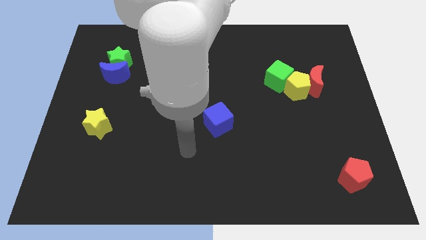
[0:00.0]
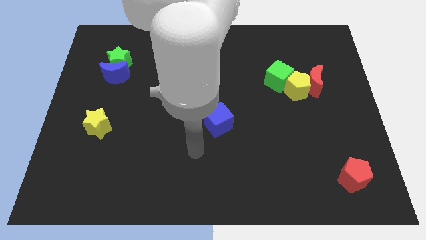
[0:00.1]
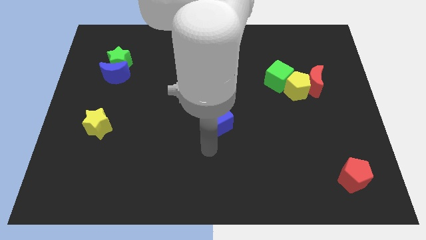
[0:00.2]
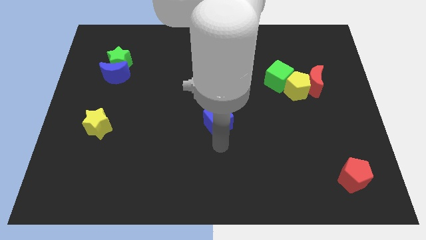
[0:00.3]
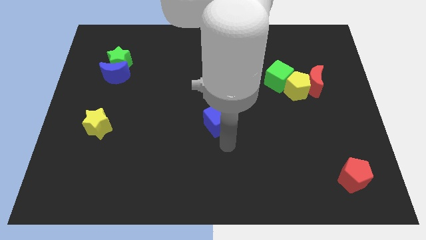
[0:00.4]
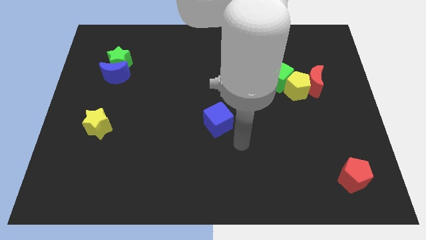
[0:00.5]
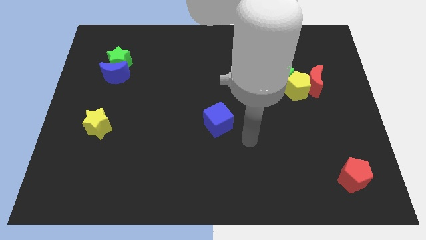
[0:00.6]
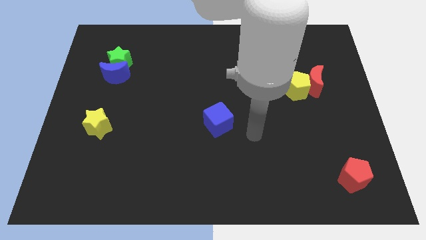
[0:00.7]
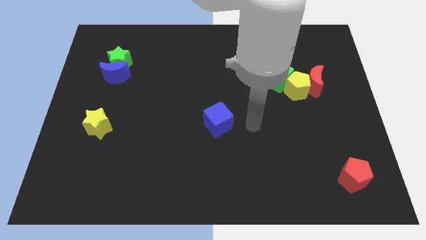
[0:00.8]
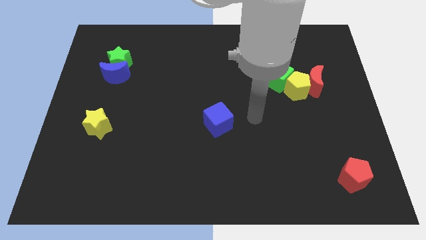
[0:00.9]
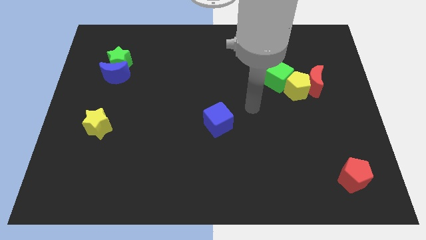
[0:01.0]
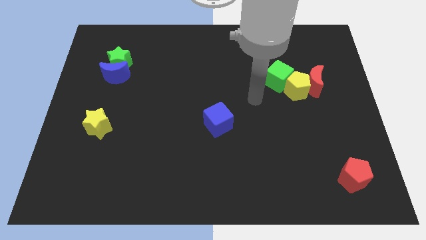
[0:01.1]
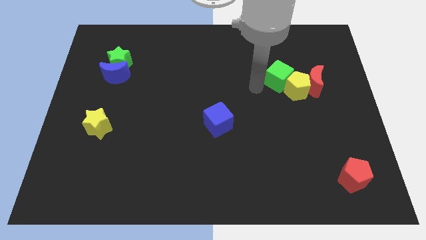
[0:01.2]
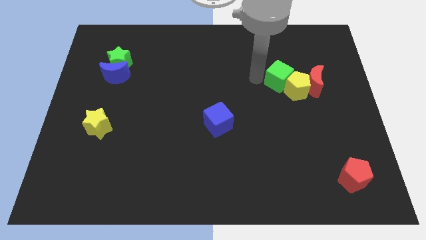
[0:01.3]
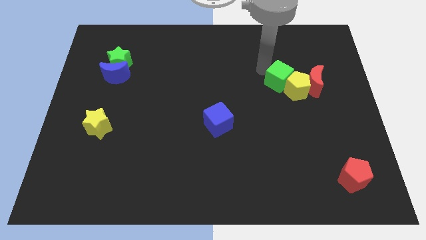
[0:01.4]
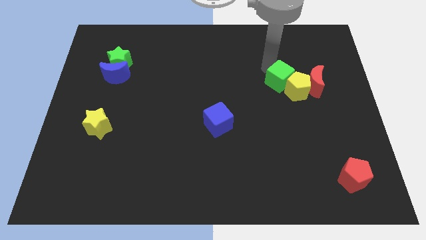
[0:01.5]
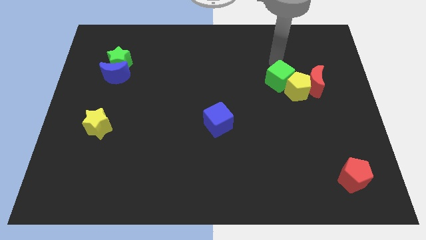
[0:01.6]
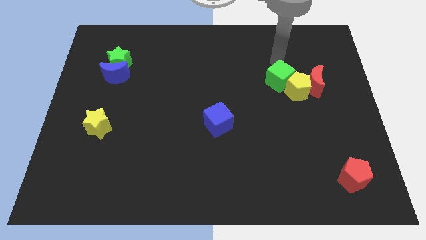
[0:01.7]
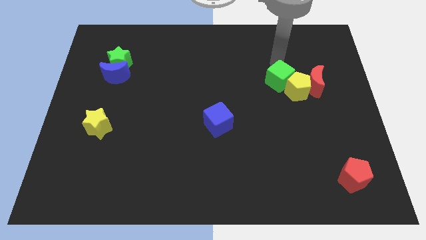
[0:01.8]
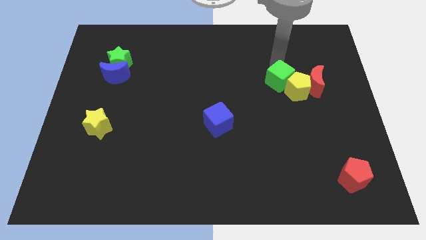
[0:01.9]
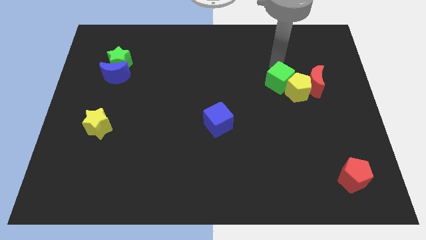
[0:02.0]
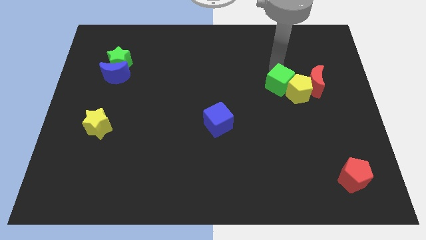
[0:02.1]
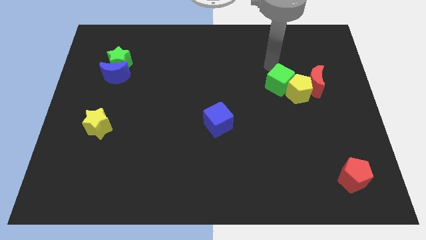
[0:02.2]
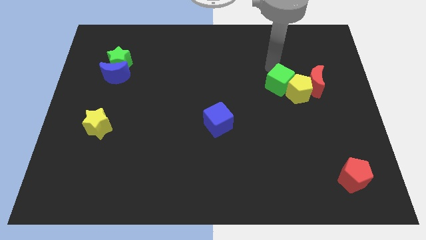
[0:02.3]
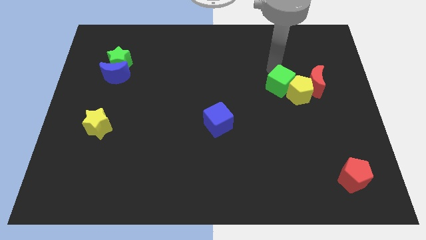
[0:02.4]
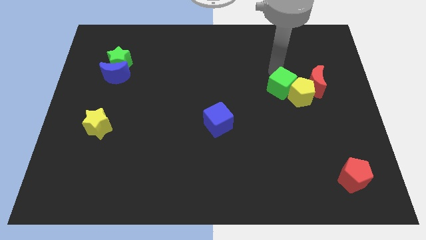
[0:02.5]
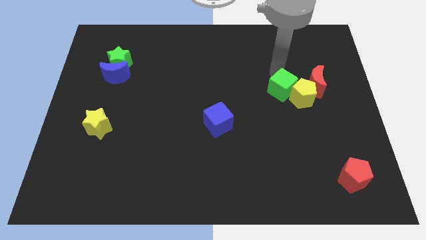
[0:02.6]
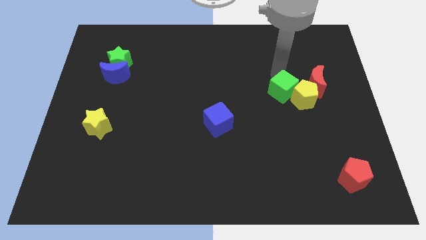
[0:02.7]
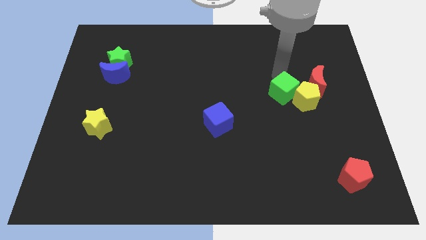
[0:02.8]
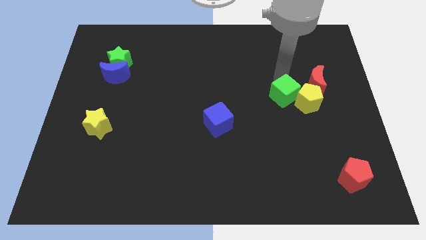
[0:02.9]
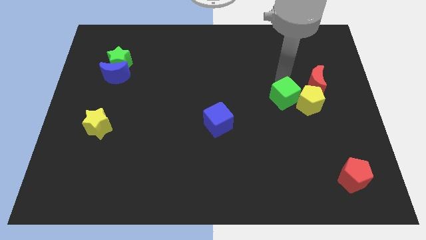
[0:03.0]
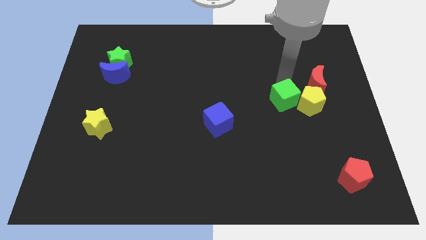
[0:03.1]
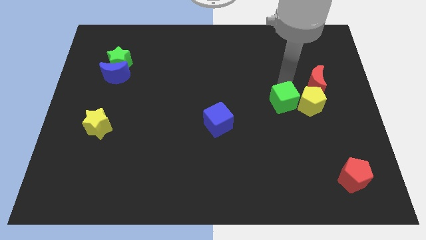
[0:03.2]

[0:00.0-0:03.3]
slightly slide the green cube downwards

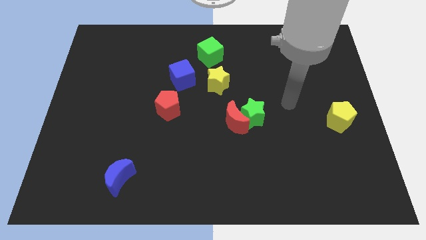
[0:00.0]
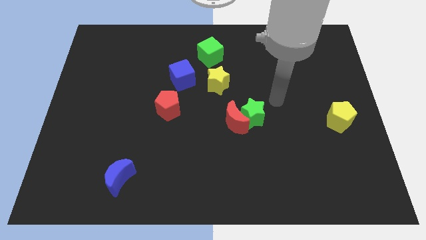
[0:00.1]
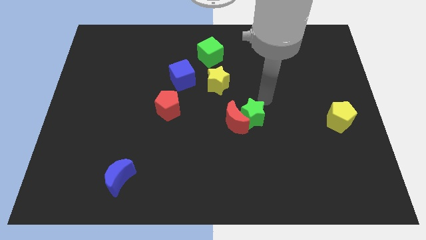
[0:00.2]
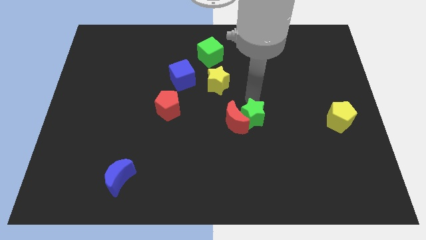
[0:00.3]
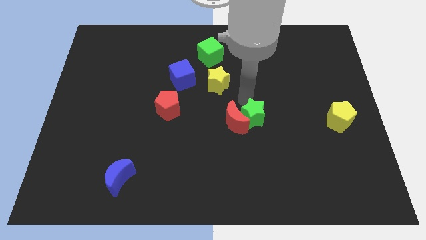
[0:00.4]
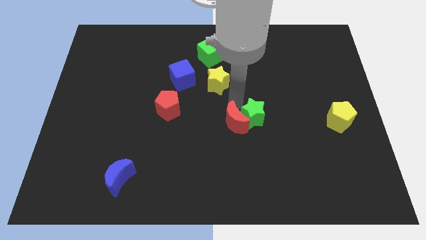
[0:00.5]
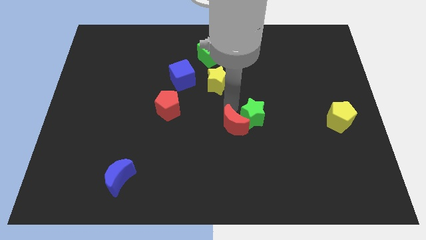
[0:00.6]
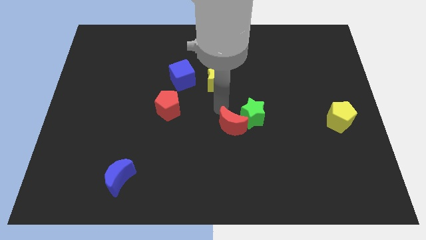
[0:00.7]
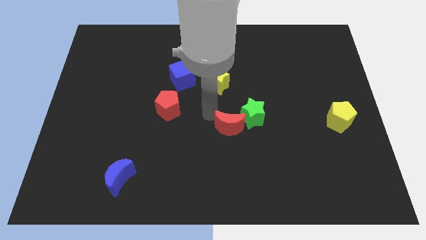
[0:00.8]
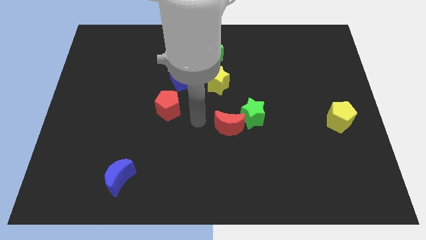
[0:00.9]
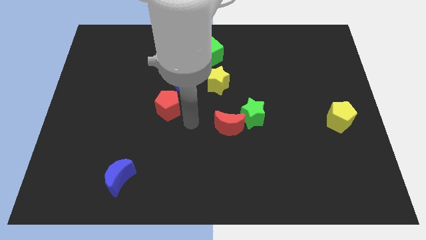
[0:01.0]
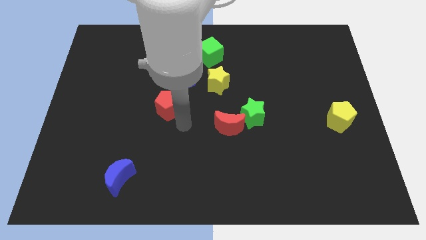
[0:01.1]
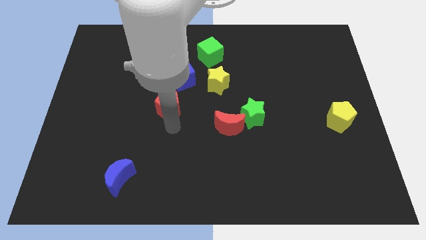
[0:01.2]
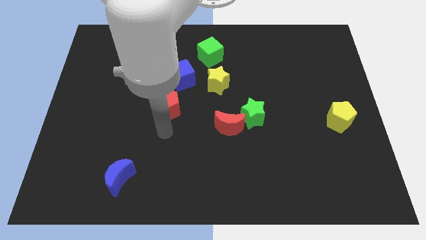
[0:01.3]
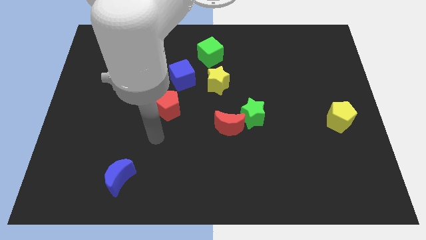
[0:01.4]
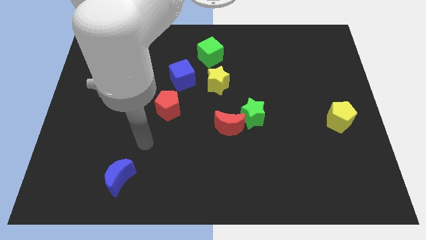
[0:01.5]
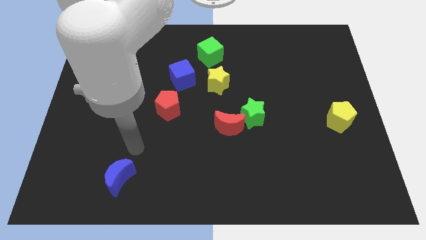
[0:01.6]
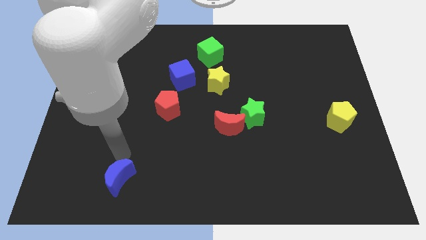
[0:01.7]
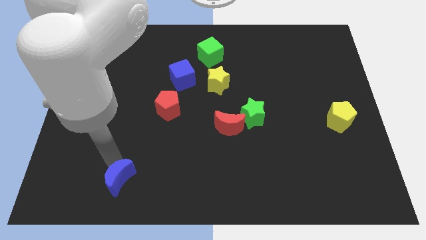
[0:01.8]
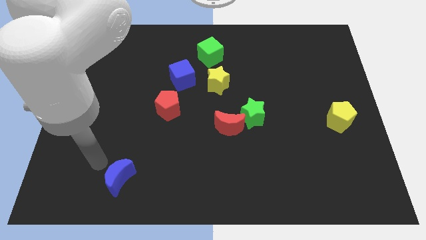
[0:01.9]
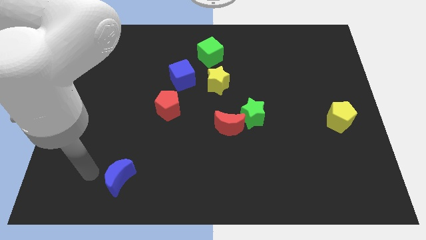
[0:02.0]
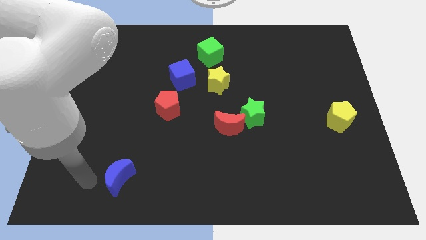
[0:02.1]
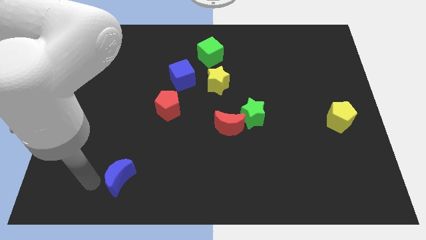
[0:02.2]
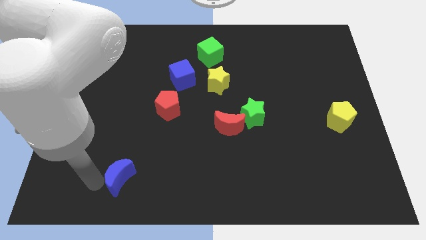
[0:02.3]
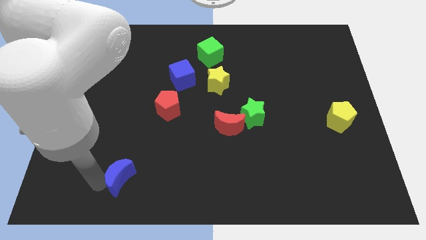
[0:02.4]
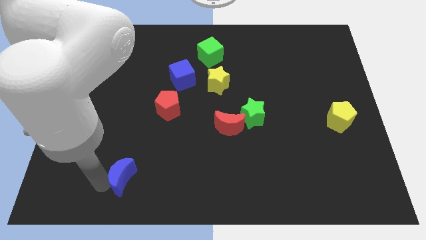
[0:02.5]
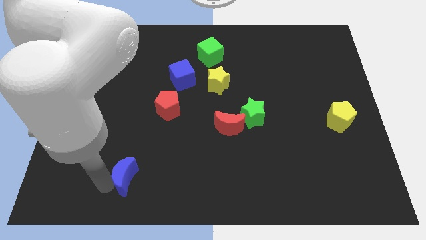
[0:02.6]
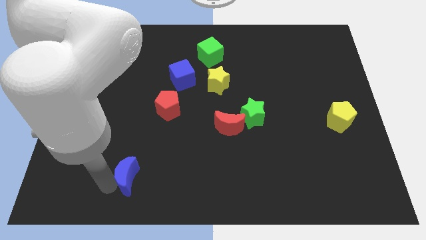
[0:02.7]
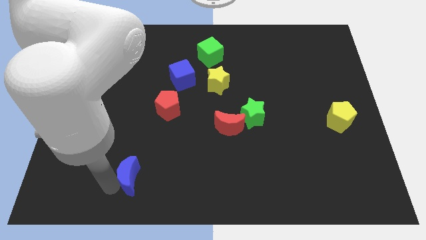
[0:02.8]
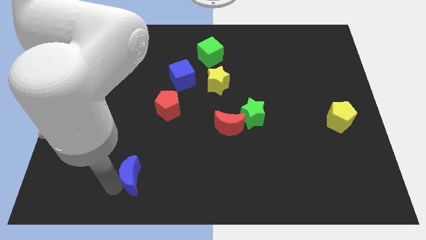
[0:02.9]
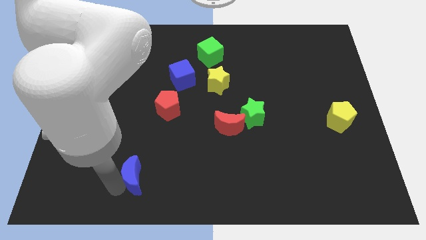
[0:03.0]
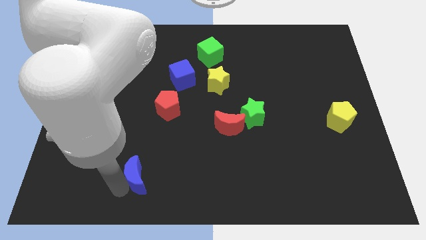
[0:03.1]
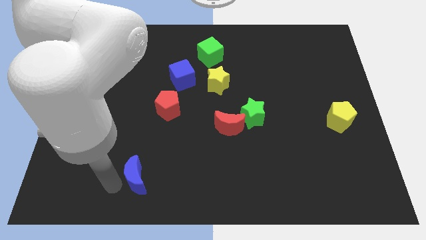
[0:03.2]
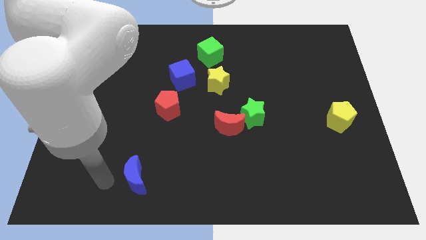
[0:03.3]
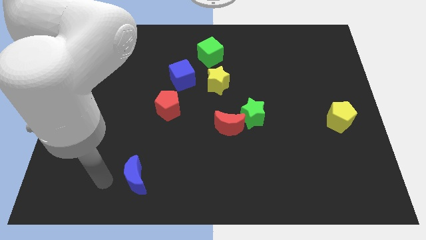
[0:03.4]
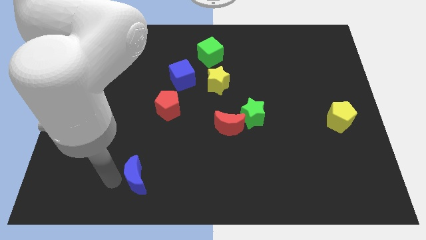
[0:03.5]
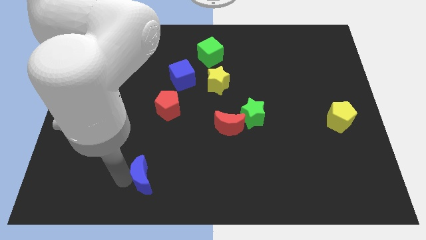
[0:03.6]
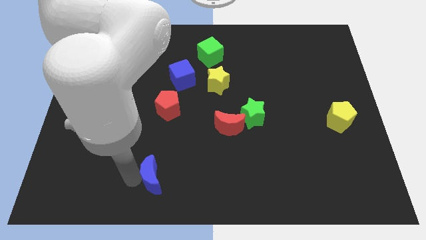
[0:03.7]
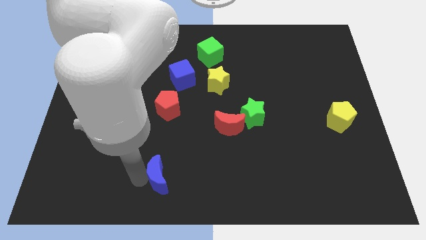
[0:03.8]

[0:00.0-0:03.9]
move the blue moon a bit to the right

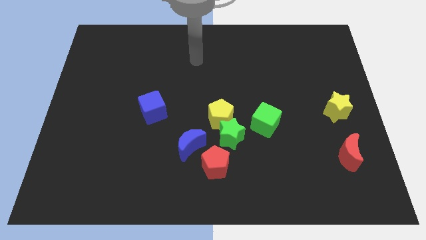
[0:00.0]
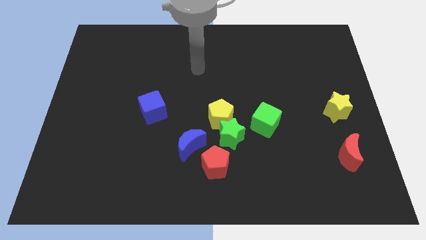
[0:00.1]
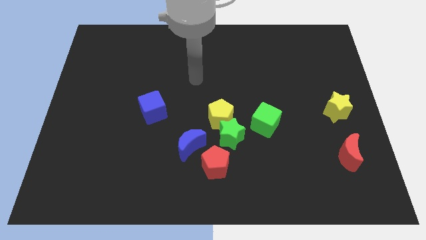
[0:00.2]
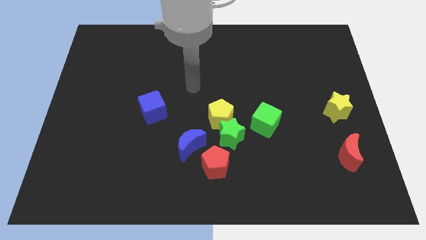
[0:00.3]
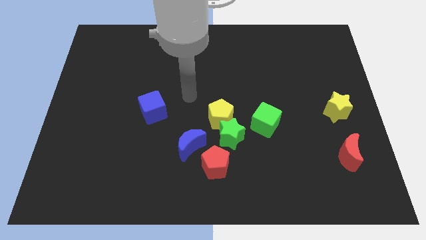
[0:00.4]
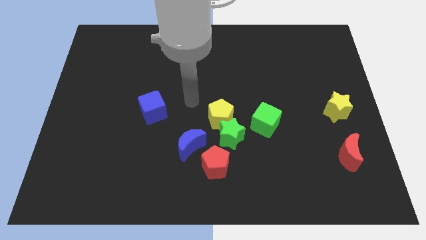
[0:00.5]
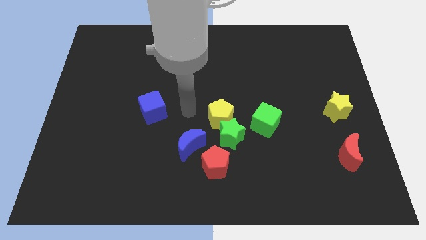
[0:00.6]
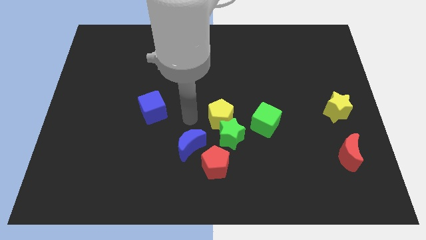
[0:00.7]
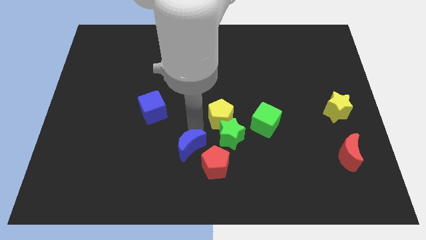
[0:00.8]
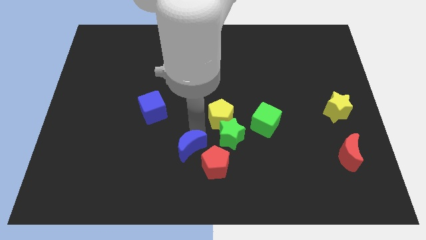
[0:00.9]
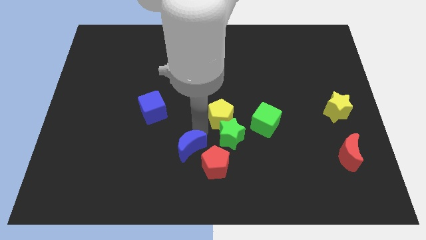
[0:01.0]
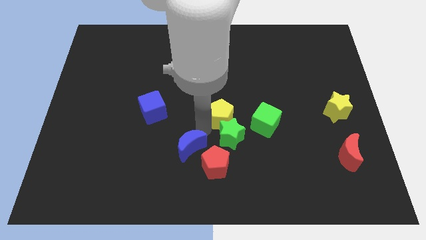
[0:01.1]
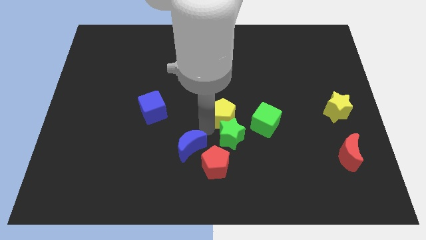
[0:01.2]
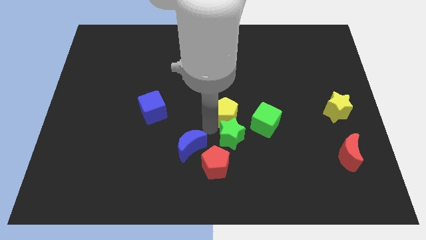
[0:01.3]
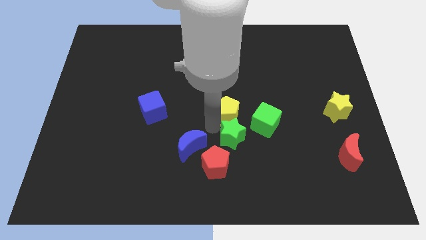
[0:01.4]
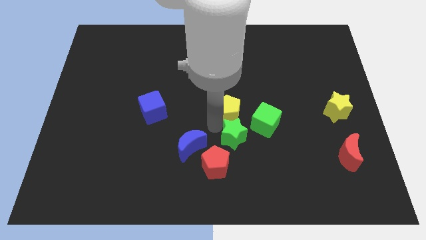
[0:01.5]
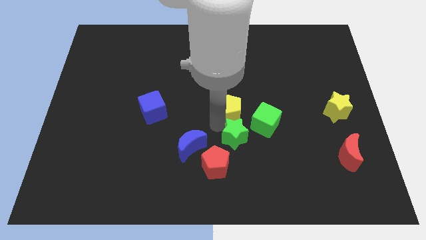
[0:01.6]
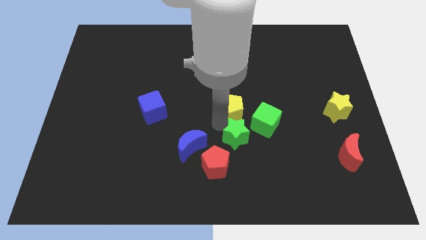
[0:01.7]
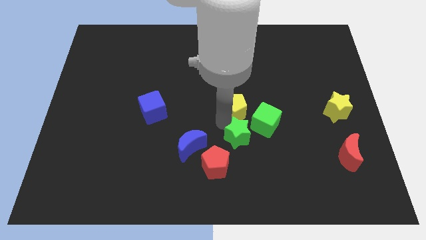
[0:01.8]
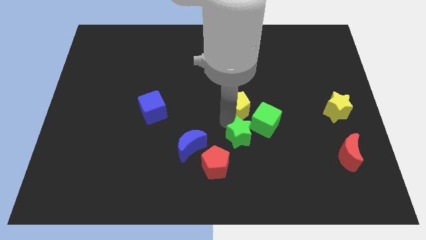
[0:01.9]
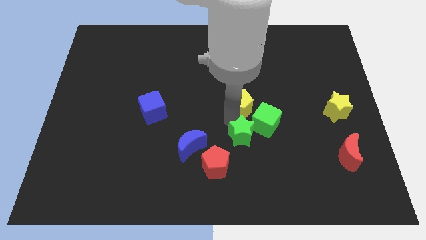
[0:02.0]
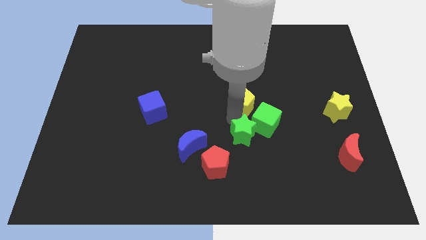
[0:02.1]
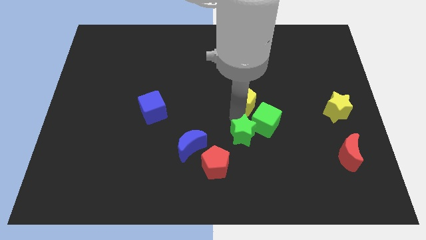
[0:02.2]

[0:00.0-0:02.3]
push the yellow pentagon a little upwards and right diagonally
